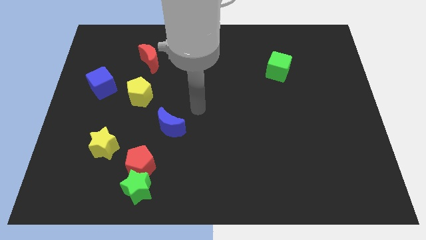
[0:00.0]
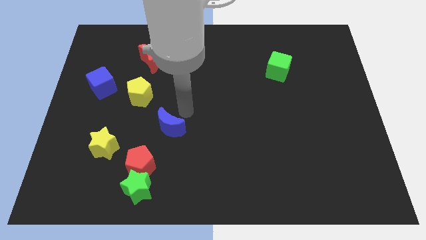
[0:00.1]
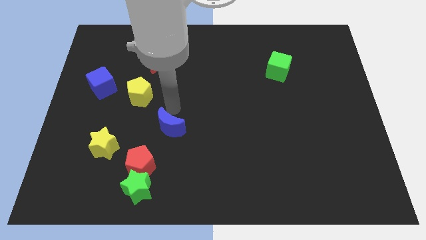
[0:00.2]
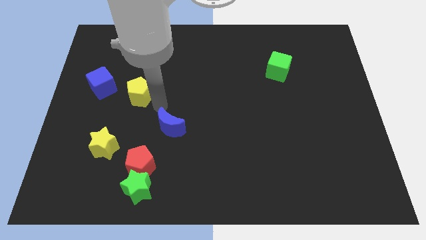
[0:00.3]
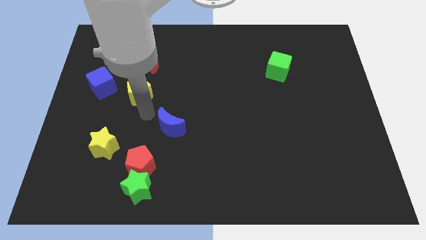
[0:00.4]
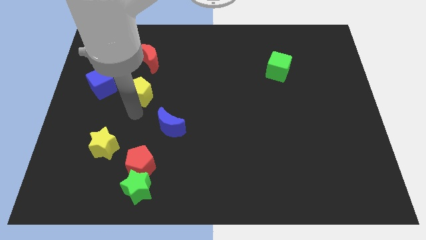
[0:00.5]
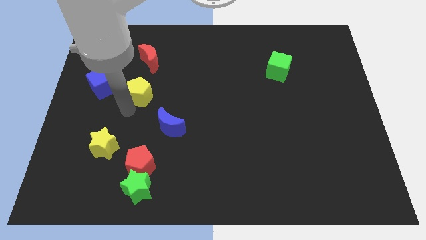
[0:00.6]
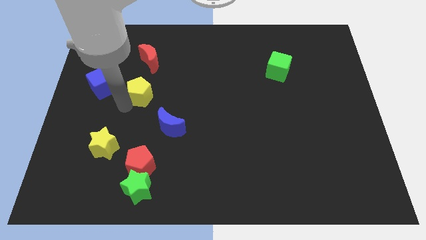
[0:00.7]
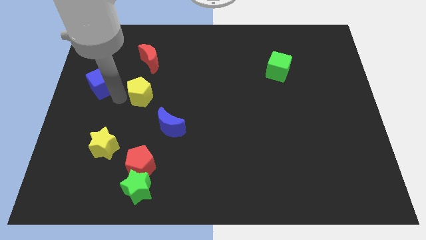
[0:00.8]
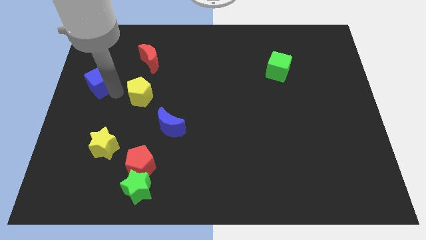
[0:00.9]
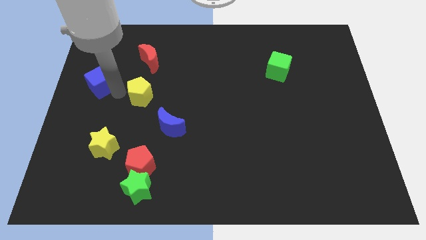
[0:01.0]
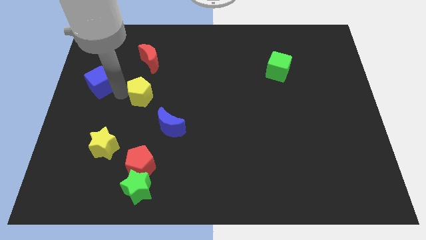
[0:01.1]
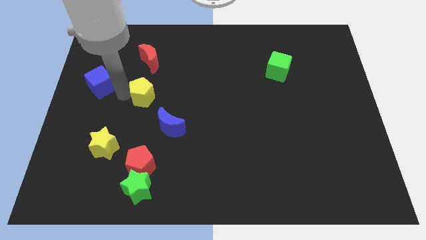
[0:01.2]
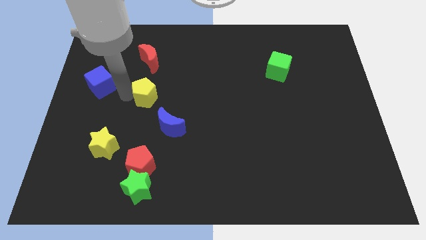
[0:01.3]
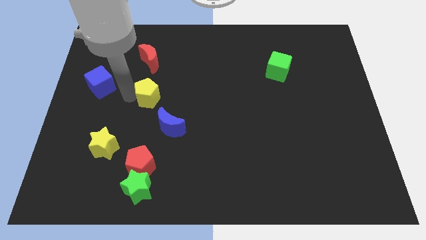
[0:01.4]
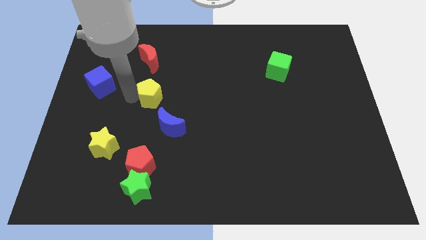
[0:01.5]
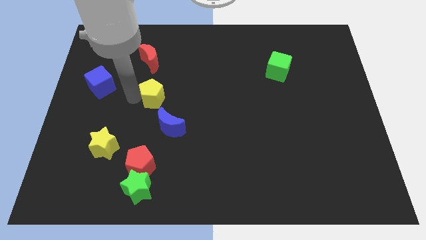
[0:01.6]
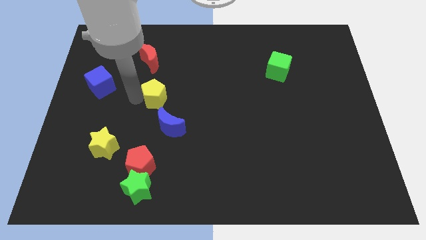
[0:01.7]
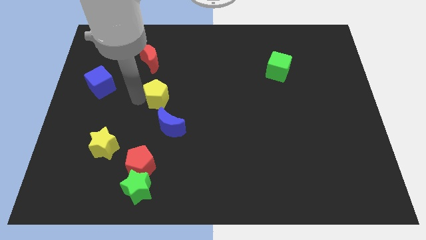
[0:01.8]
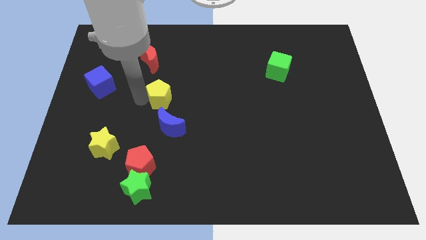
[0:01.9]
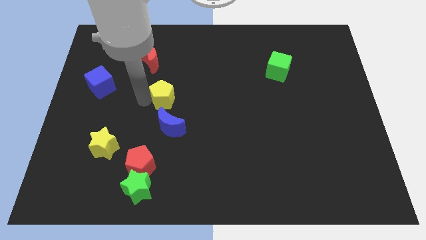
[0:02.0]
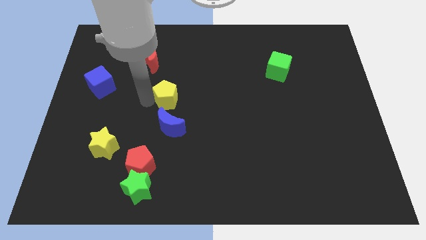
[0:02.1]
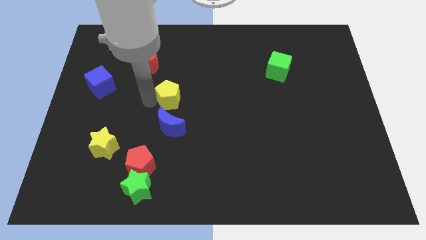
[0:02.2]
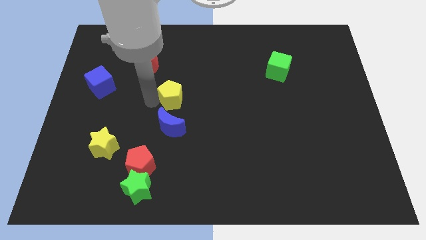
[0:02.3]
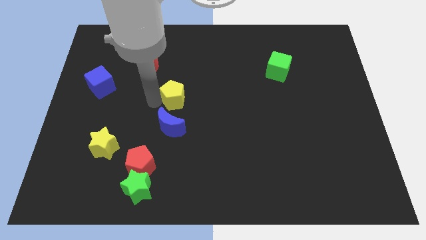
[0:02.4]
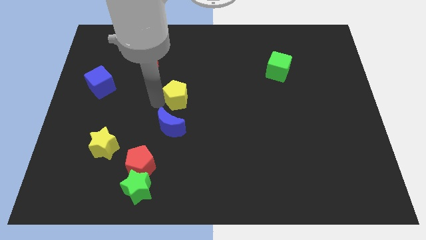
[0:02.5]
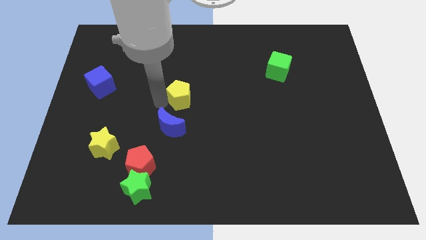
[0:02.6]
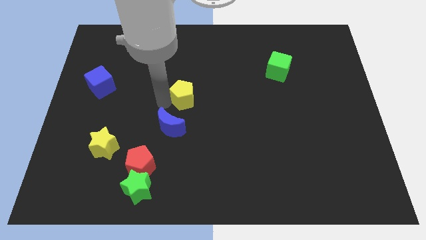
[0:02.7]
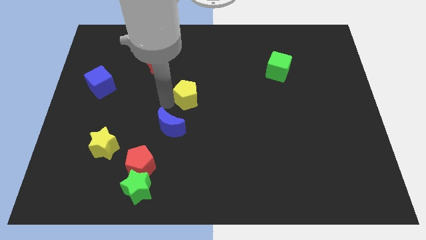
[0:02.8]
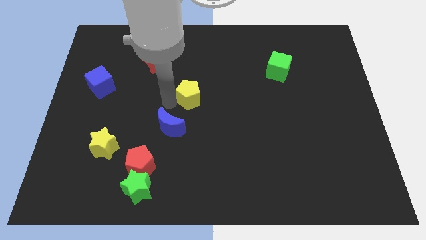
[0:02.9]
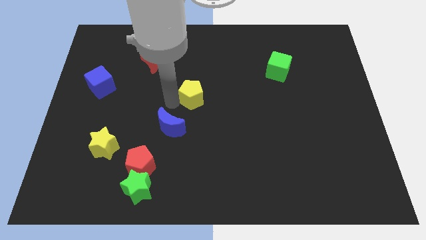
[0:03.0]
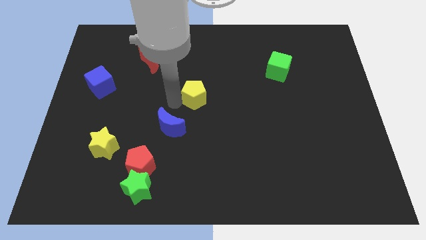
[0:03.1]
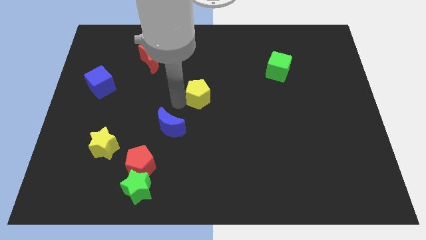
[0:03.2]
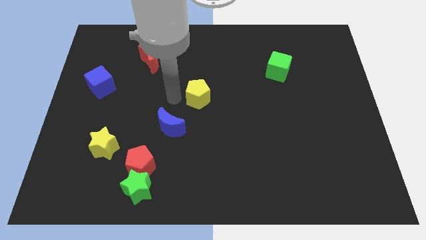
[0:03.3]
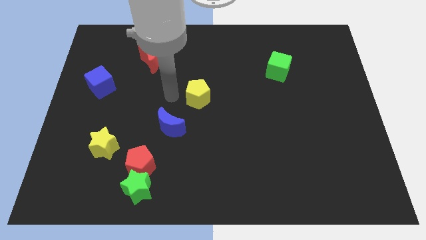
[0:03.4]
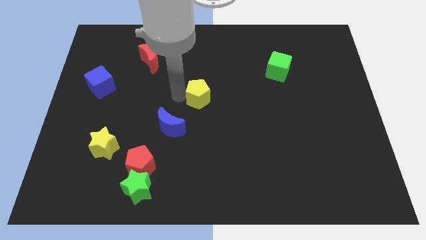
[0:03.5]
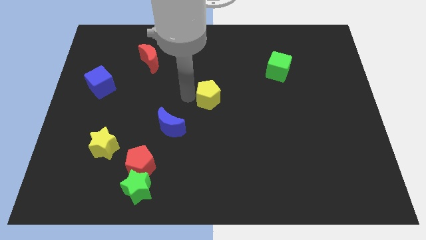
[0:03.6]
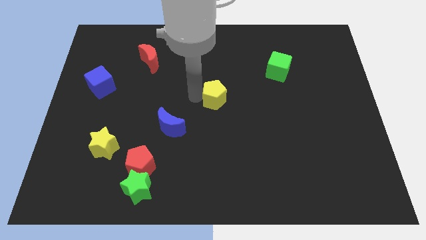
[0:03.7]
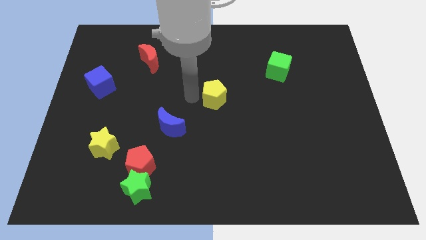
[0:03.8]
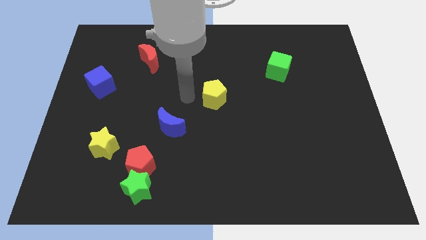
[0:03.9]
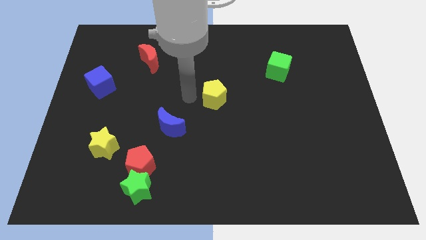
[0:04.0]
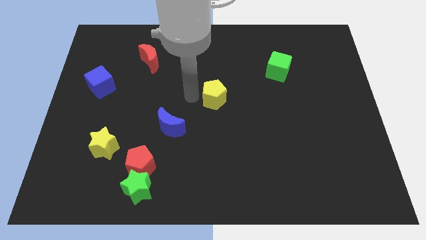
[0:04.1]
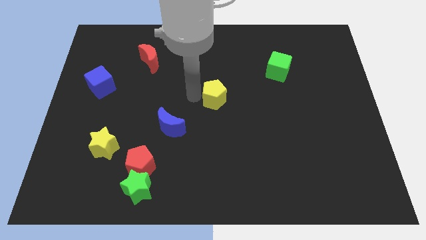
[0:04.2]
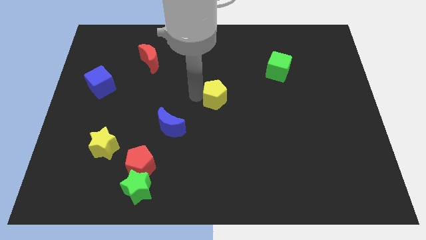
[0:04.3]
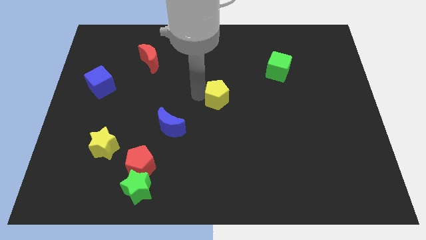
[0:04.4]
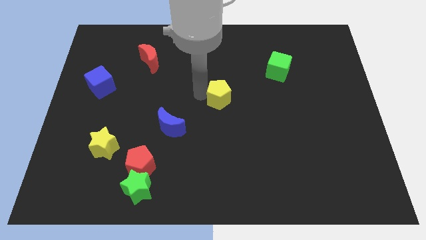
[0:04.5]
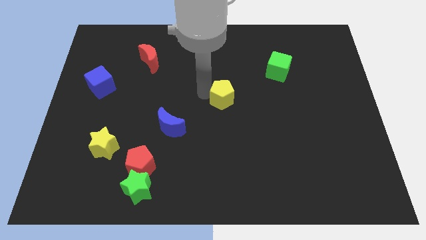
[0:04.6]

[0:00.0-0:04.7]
slide the yellow pentagon to the right

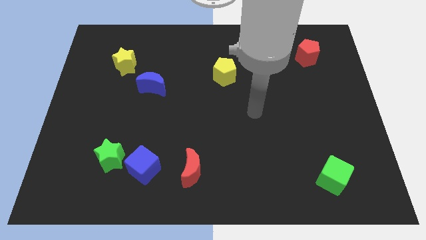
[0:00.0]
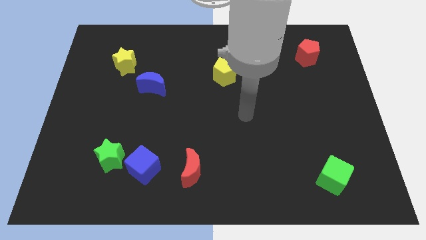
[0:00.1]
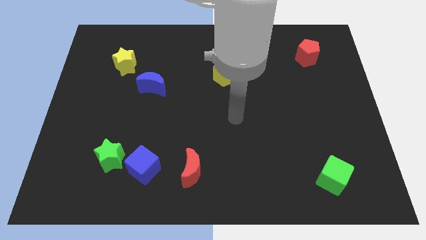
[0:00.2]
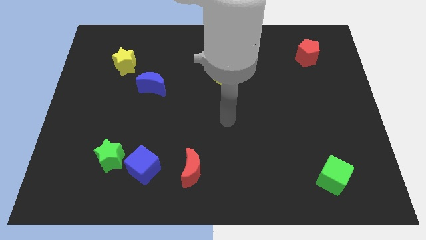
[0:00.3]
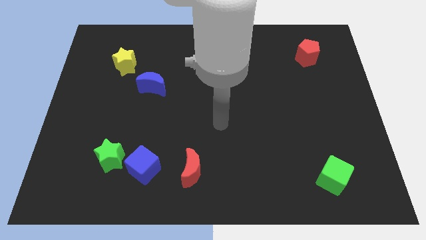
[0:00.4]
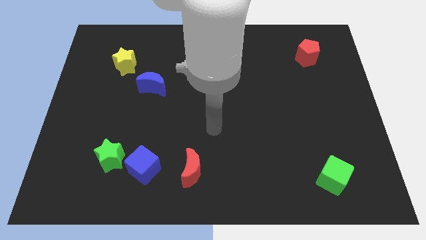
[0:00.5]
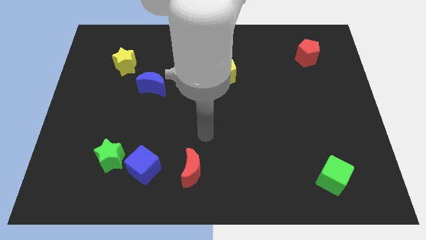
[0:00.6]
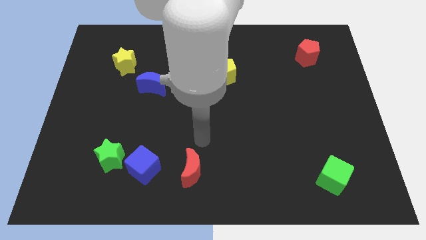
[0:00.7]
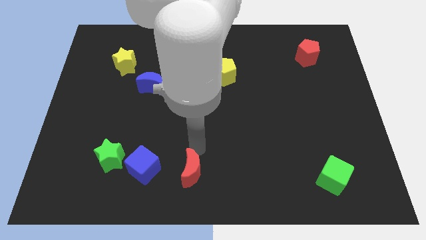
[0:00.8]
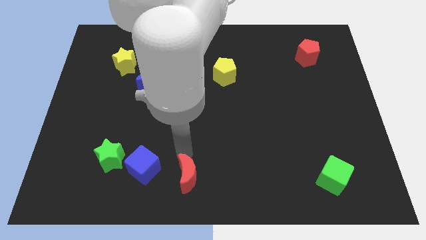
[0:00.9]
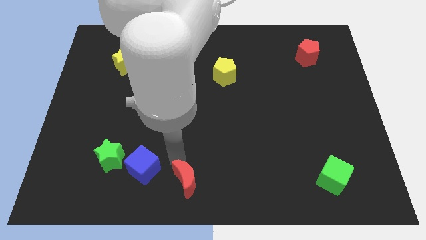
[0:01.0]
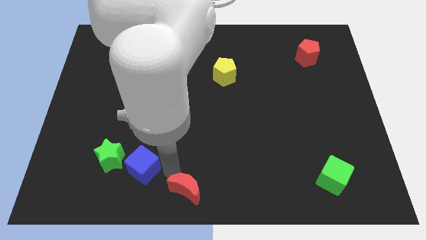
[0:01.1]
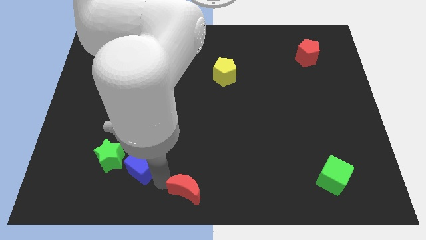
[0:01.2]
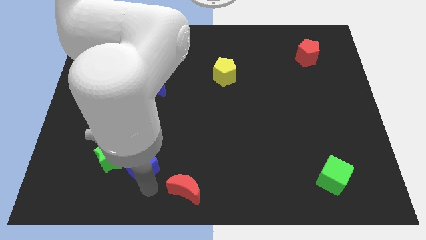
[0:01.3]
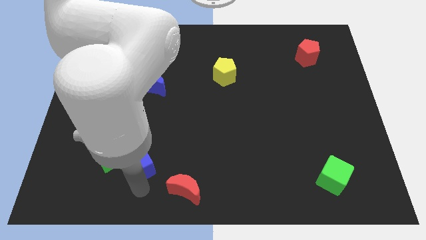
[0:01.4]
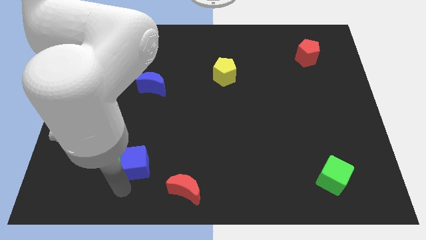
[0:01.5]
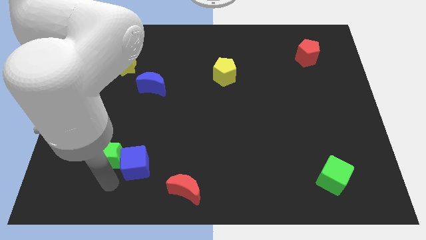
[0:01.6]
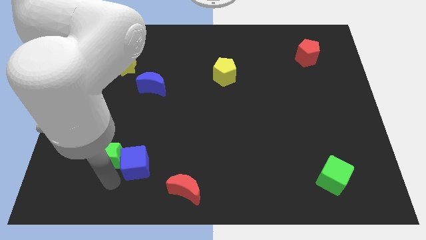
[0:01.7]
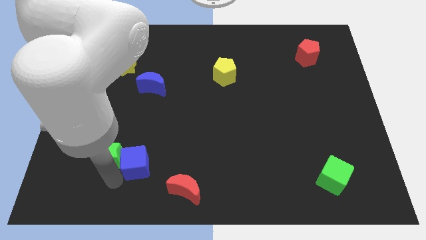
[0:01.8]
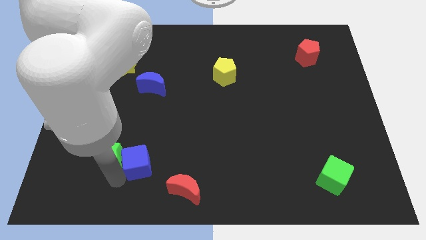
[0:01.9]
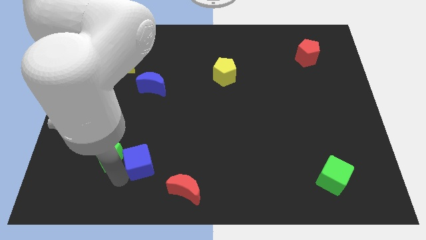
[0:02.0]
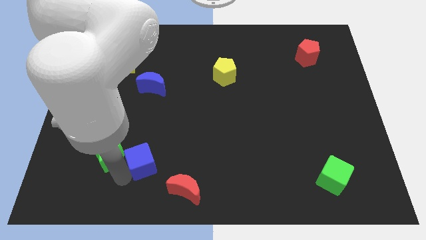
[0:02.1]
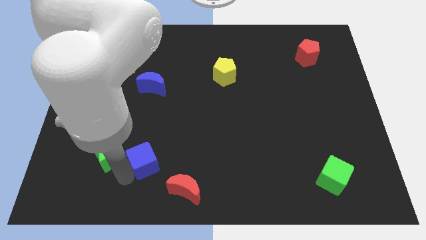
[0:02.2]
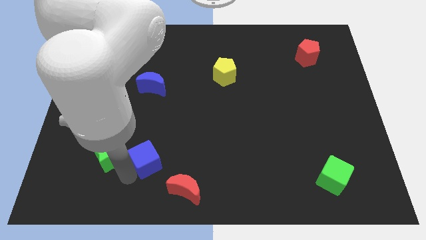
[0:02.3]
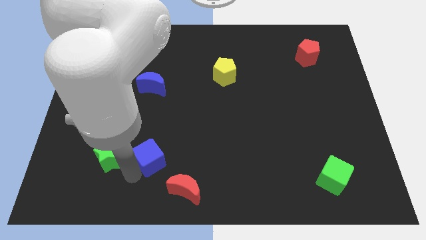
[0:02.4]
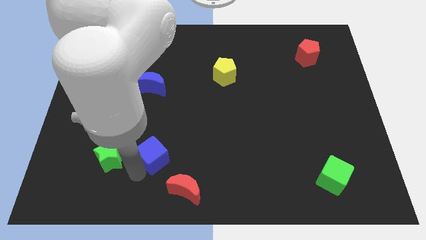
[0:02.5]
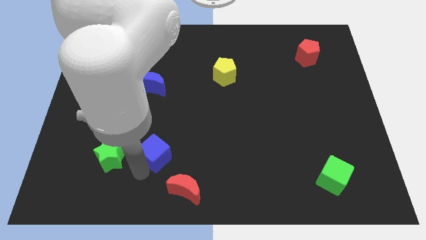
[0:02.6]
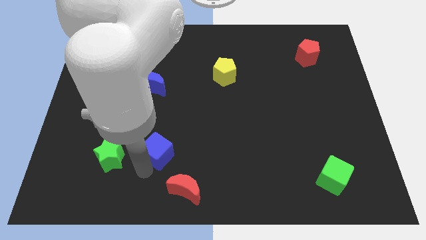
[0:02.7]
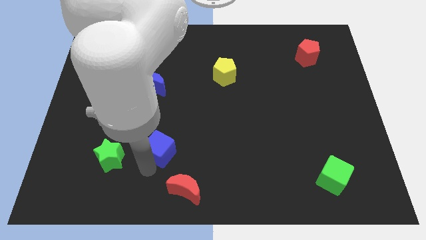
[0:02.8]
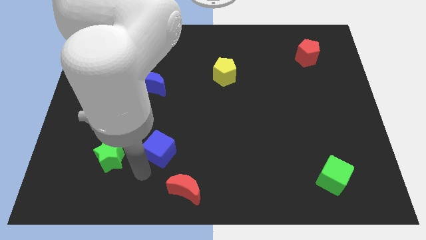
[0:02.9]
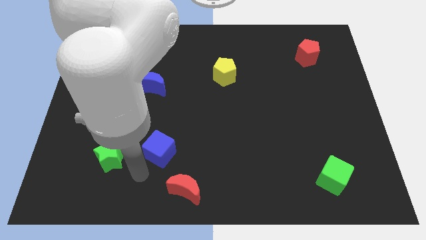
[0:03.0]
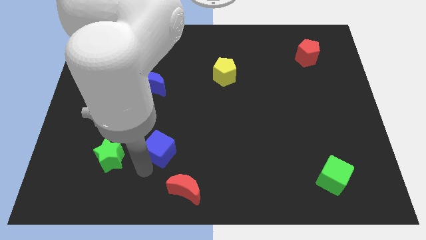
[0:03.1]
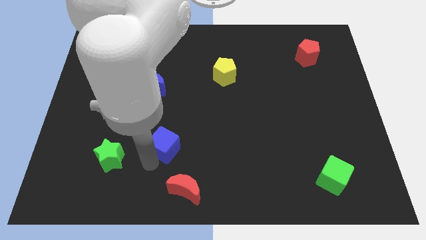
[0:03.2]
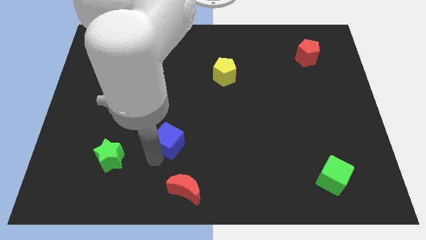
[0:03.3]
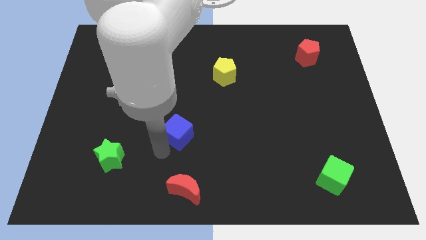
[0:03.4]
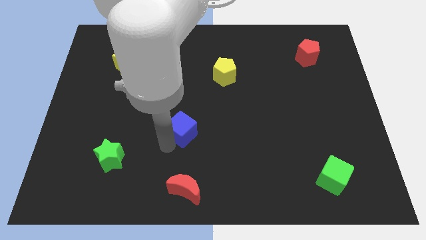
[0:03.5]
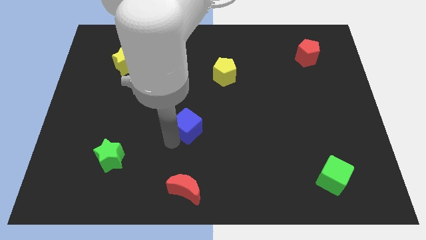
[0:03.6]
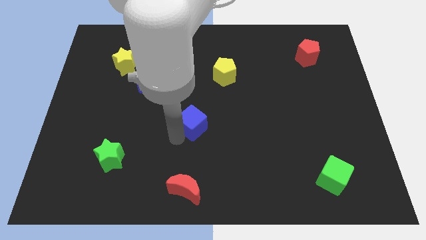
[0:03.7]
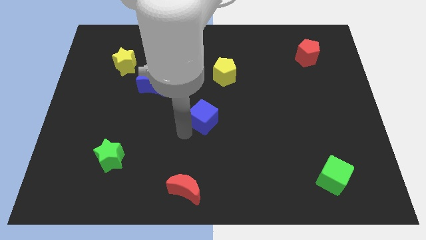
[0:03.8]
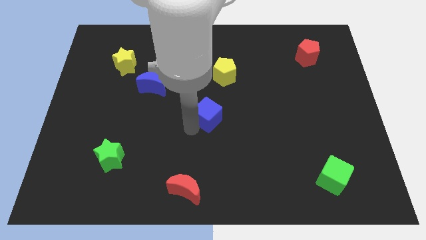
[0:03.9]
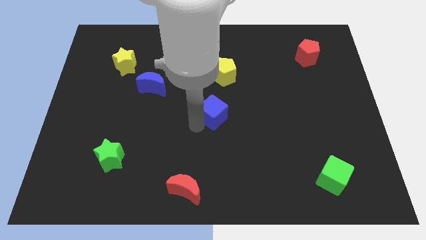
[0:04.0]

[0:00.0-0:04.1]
slide the blue cube up and to the right diagonally
